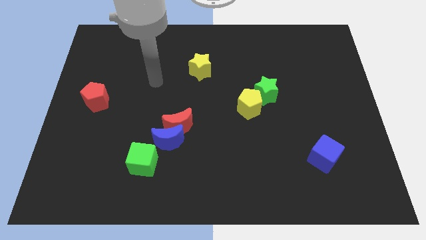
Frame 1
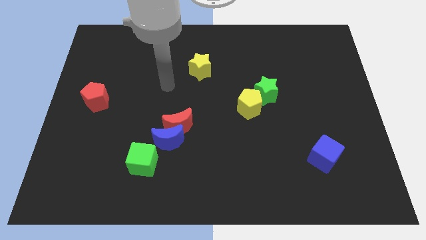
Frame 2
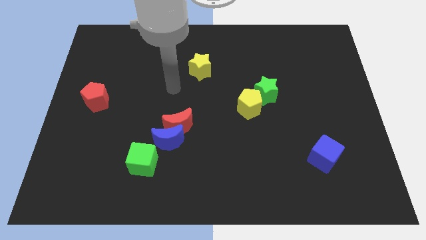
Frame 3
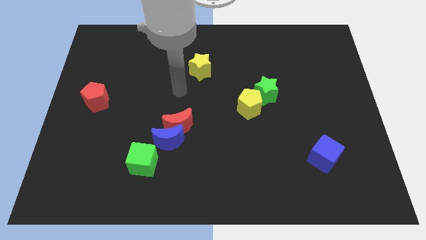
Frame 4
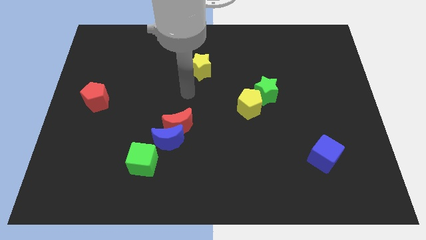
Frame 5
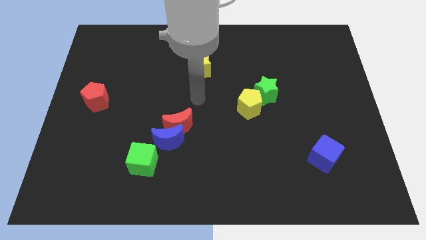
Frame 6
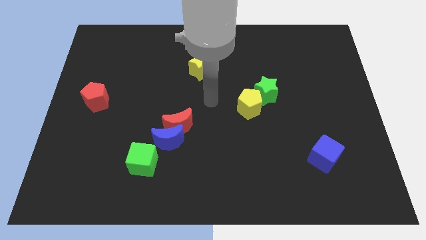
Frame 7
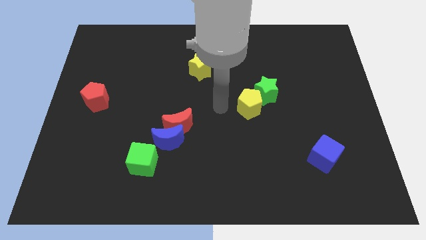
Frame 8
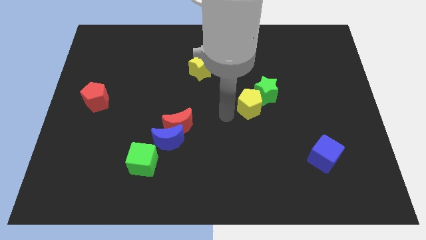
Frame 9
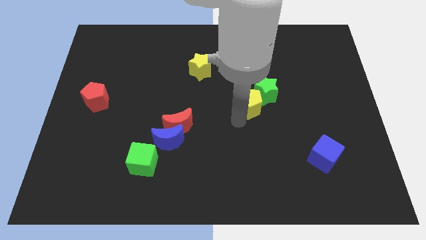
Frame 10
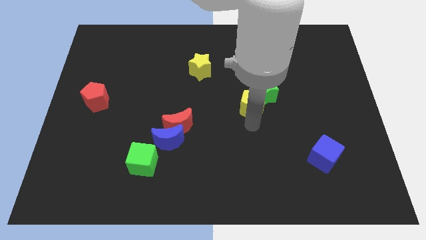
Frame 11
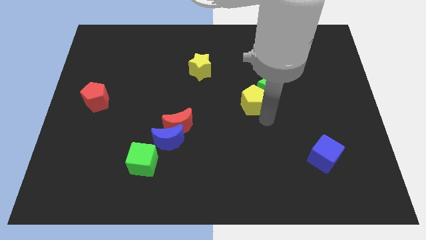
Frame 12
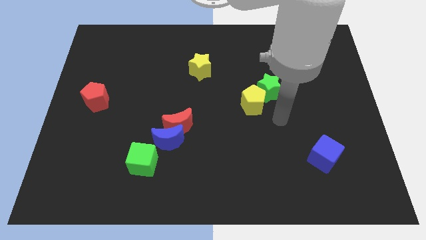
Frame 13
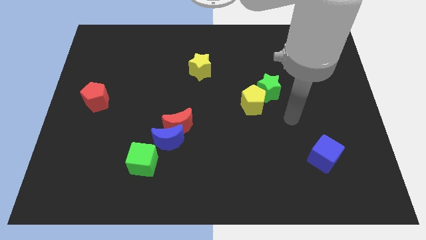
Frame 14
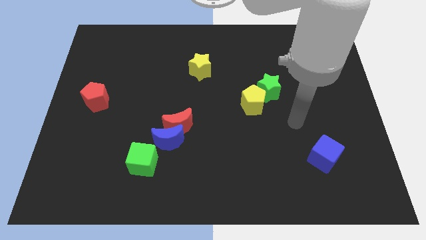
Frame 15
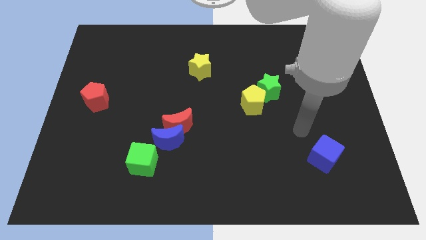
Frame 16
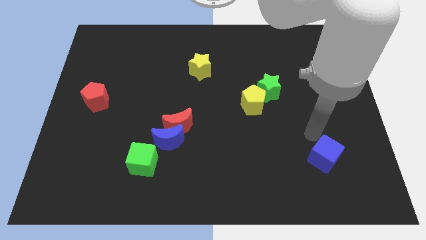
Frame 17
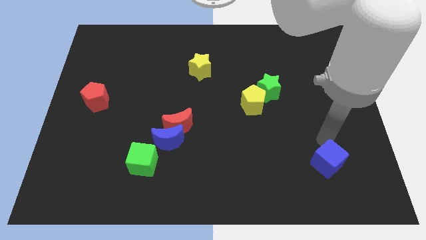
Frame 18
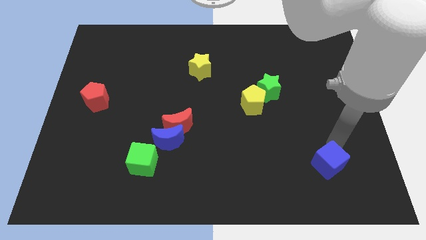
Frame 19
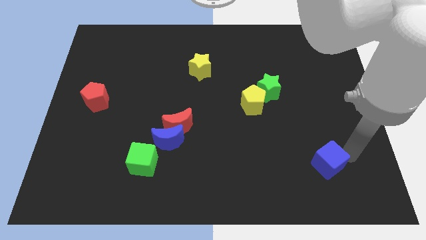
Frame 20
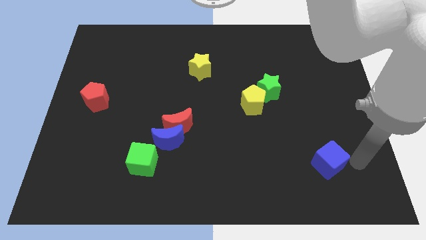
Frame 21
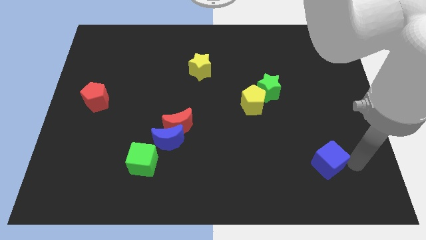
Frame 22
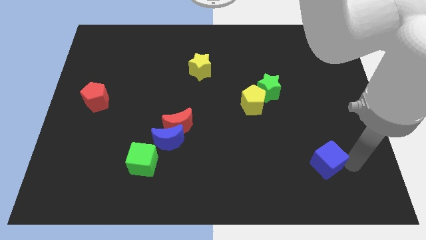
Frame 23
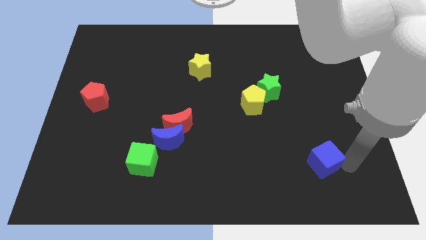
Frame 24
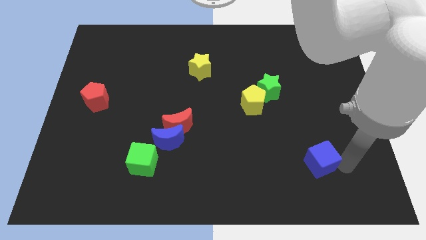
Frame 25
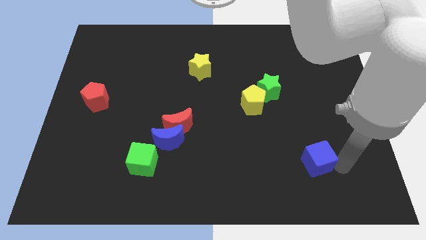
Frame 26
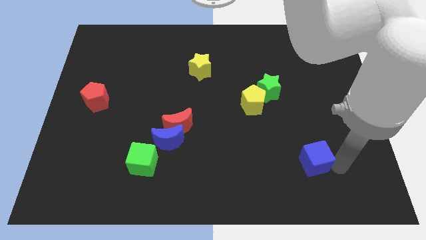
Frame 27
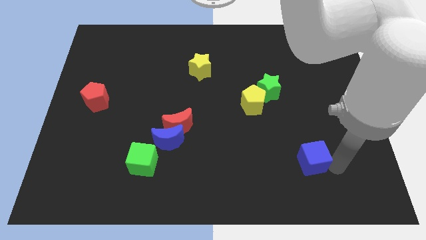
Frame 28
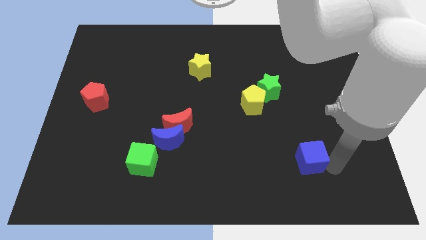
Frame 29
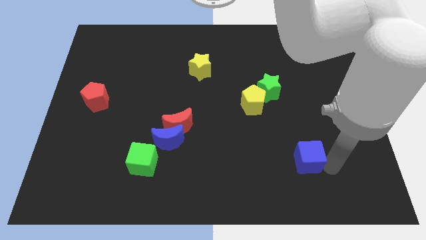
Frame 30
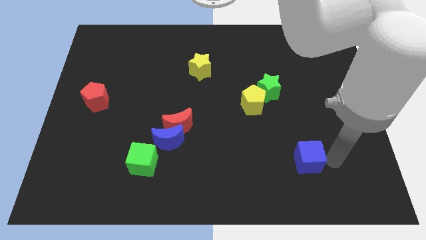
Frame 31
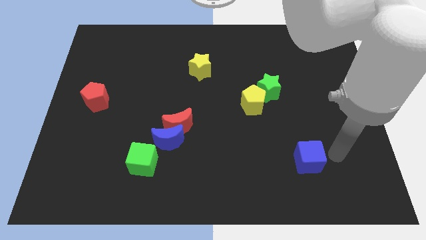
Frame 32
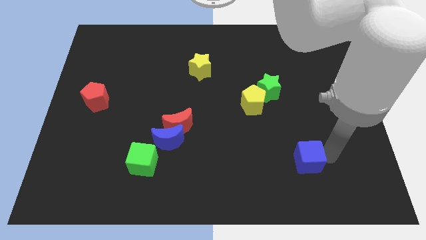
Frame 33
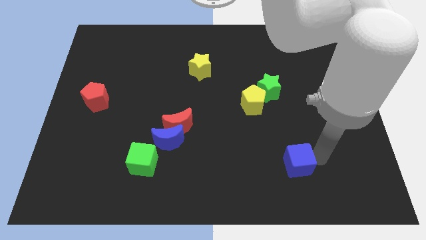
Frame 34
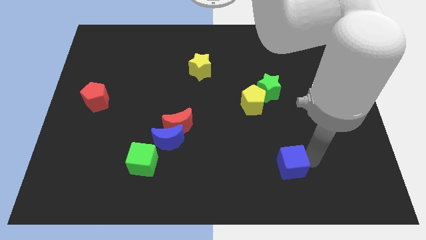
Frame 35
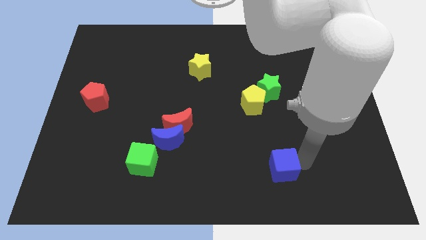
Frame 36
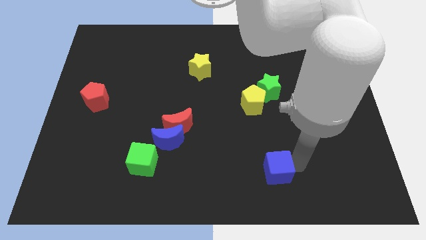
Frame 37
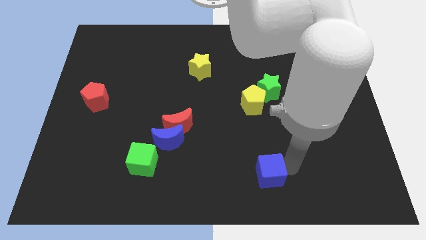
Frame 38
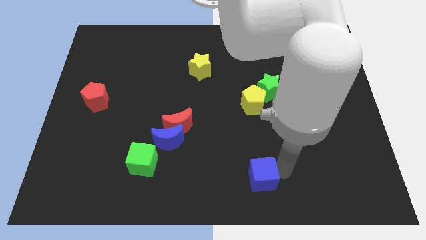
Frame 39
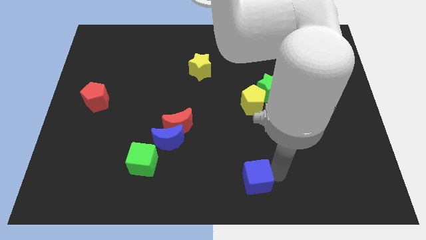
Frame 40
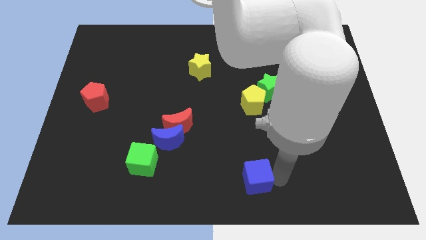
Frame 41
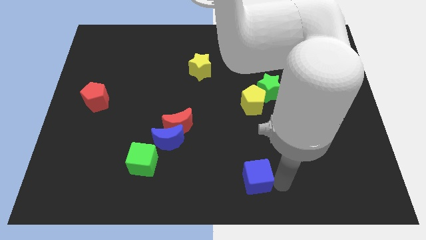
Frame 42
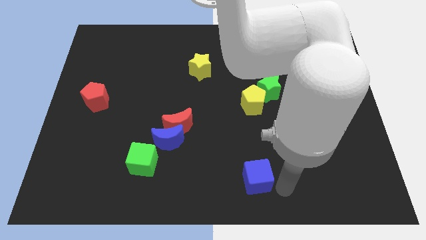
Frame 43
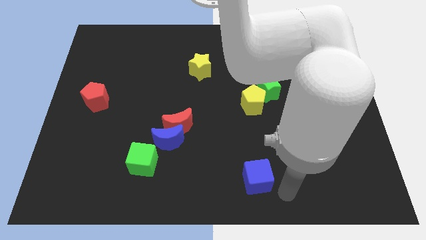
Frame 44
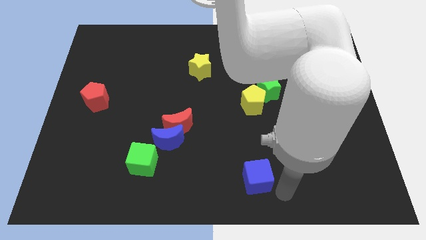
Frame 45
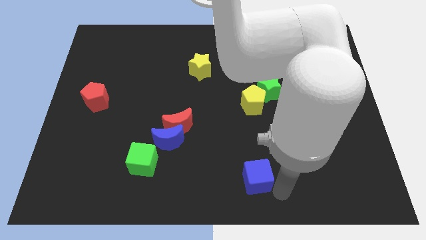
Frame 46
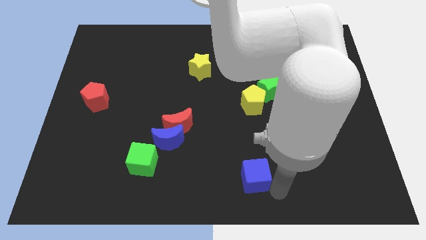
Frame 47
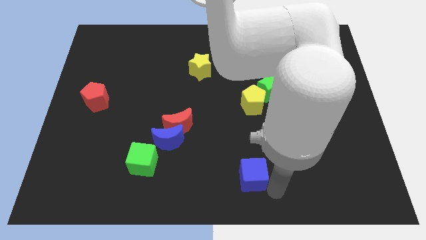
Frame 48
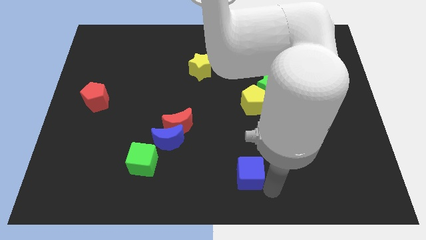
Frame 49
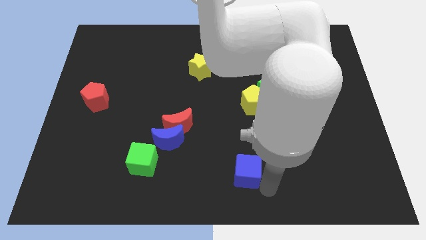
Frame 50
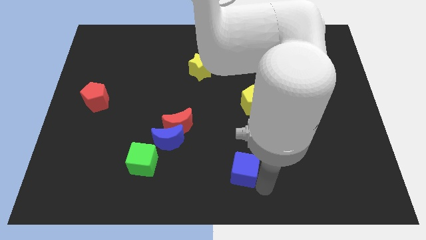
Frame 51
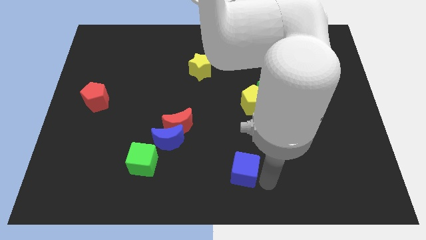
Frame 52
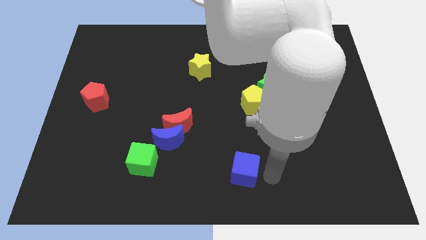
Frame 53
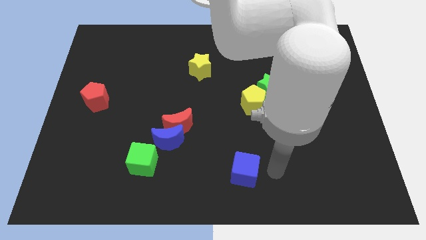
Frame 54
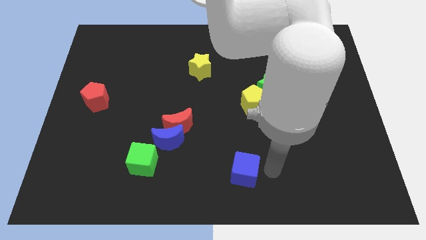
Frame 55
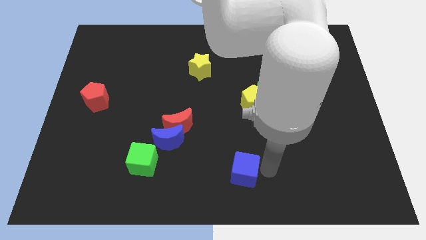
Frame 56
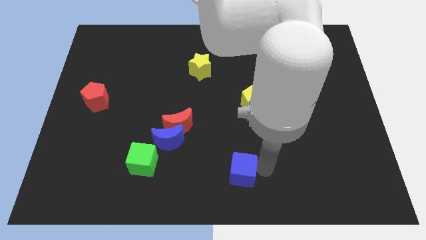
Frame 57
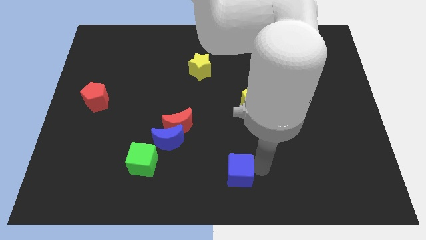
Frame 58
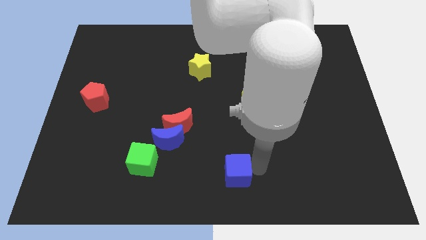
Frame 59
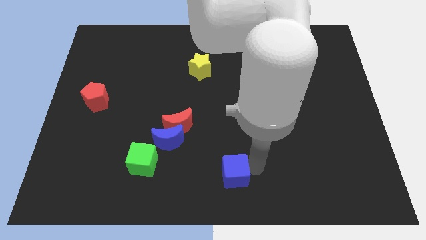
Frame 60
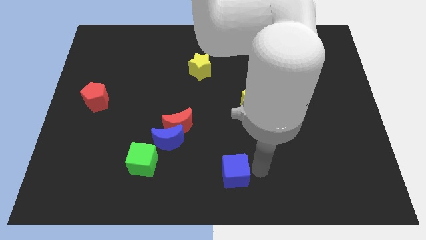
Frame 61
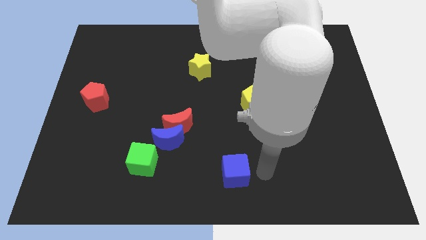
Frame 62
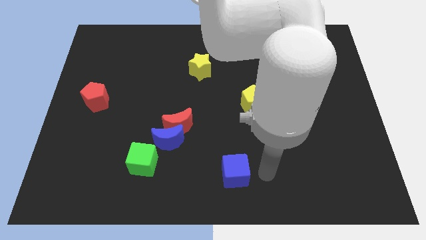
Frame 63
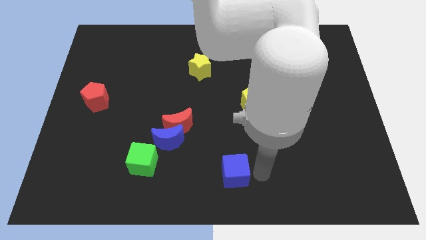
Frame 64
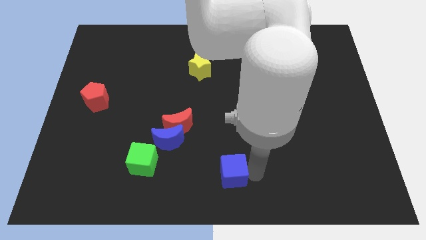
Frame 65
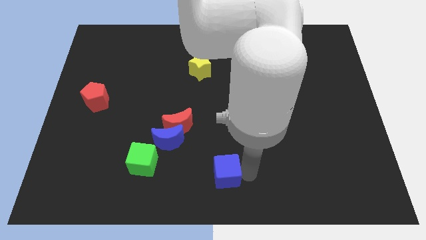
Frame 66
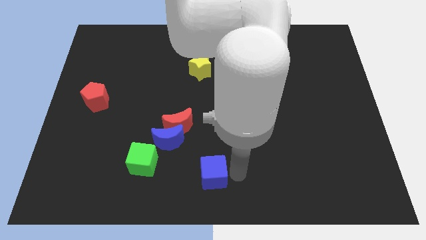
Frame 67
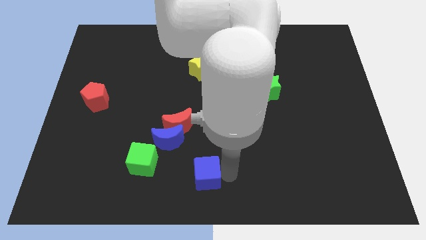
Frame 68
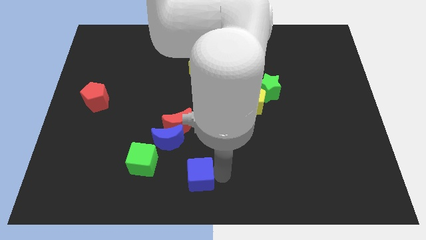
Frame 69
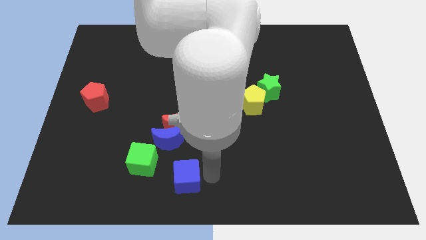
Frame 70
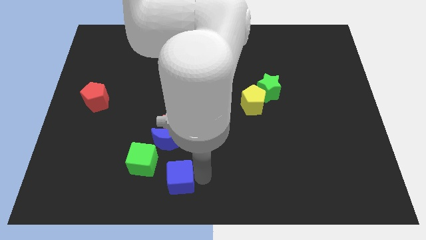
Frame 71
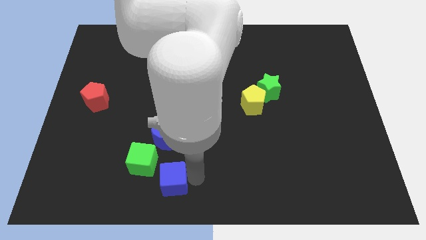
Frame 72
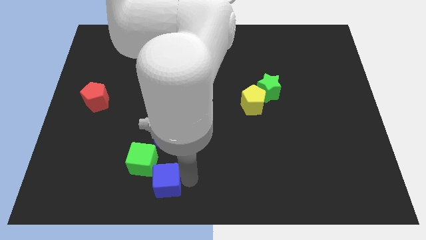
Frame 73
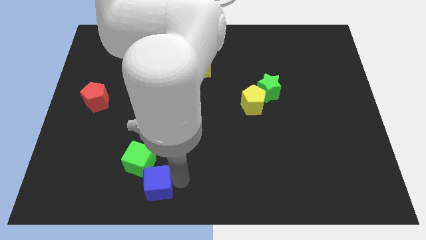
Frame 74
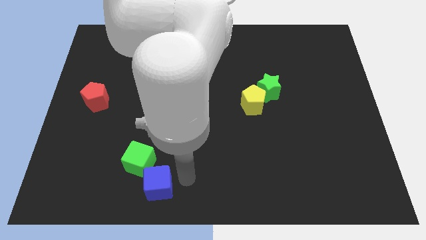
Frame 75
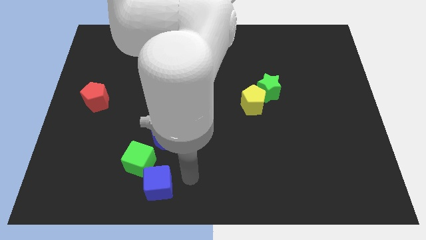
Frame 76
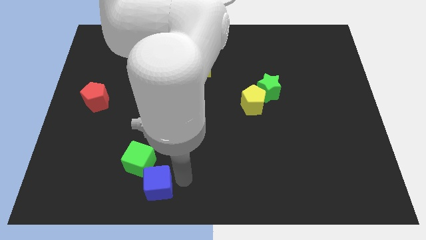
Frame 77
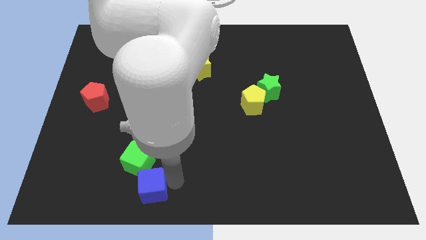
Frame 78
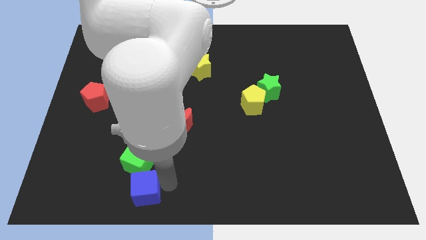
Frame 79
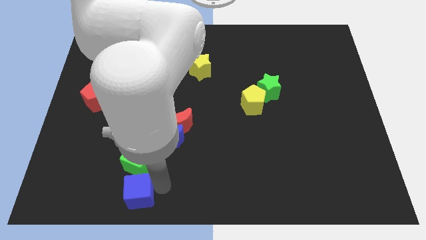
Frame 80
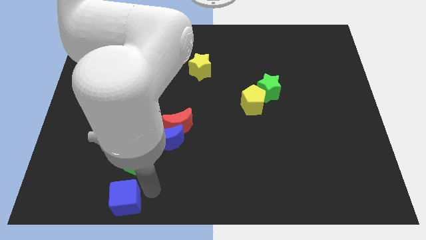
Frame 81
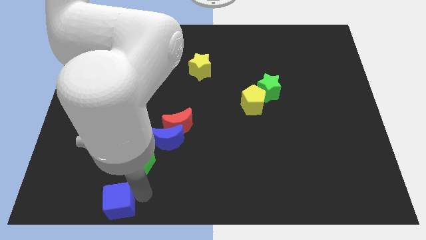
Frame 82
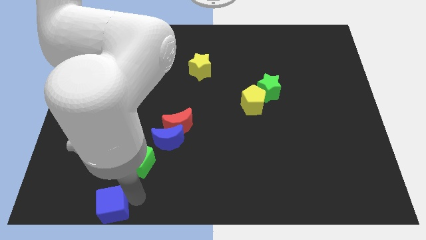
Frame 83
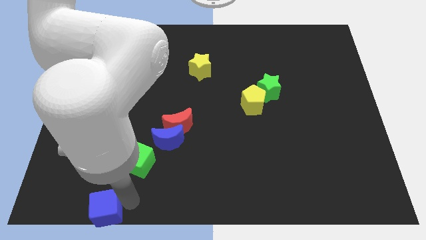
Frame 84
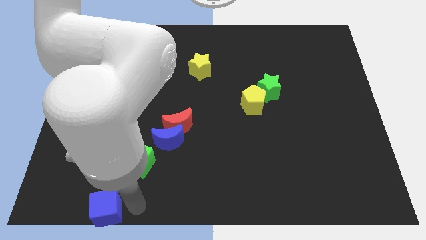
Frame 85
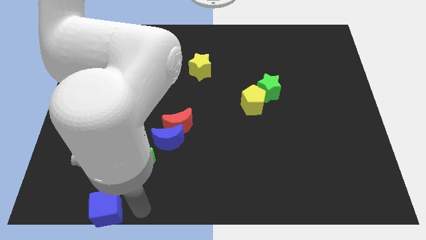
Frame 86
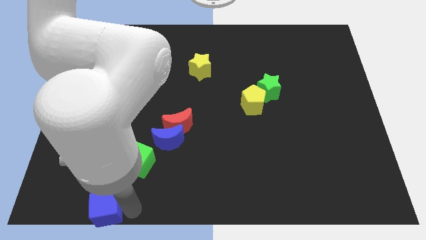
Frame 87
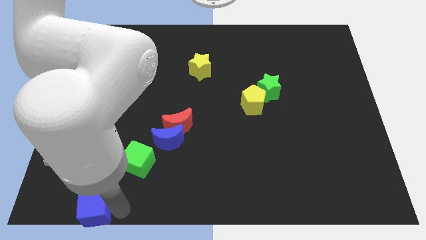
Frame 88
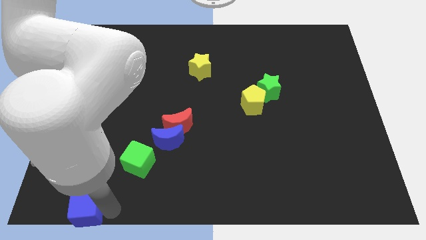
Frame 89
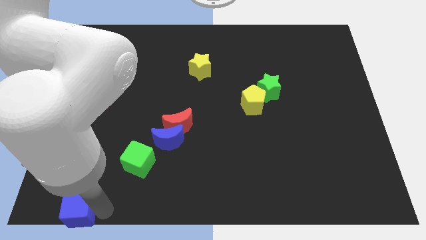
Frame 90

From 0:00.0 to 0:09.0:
move the blue cube to the lower left corner
